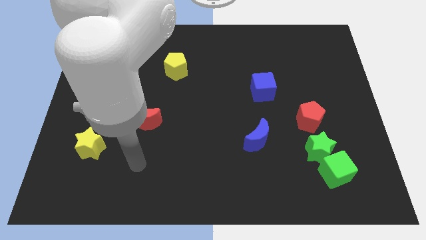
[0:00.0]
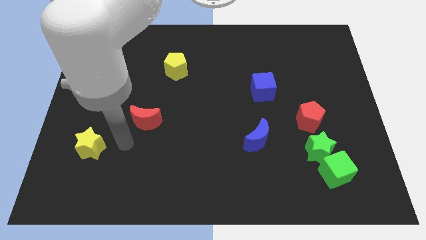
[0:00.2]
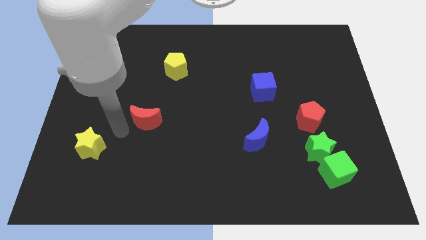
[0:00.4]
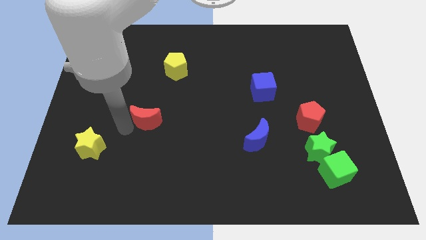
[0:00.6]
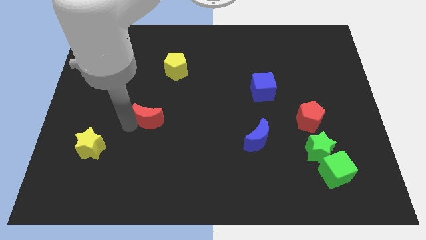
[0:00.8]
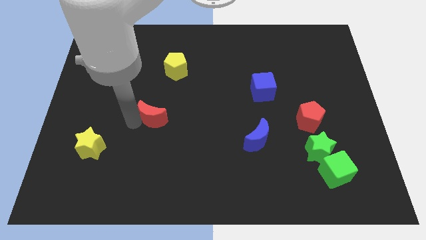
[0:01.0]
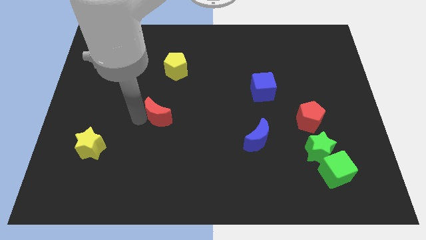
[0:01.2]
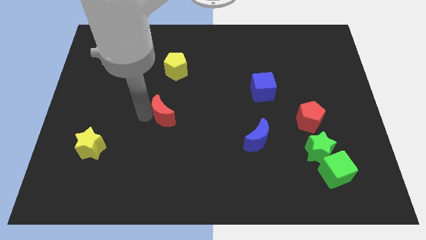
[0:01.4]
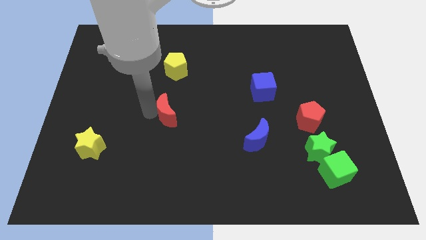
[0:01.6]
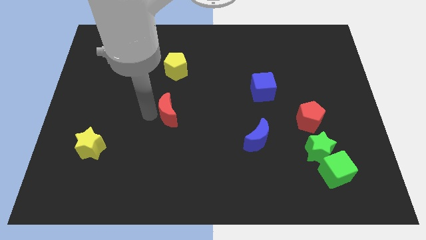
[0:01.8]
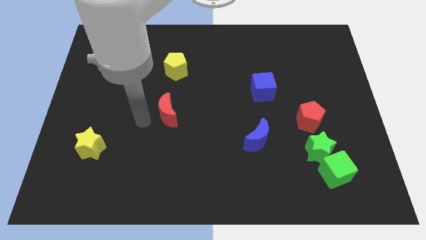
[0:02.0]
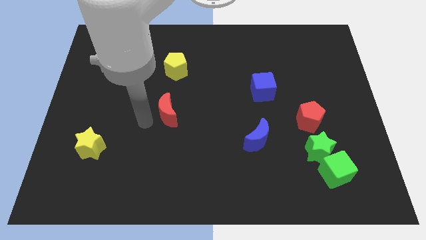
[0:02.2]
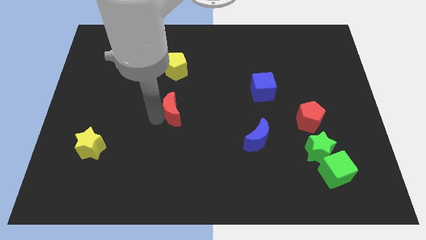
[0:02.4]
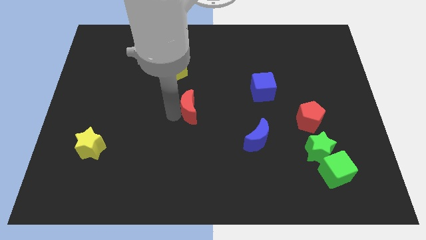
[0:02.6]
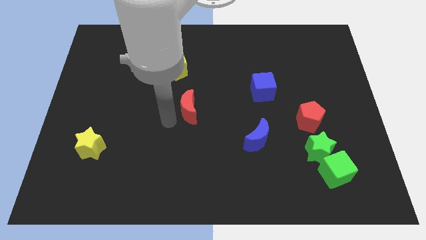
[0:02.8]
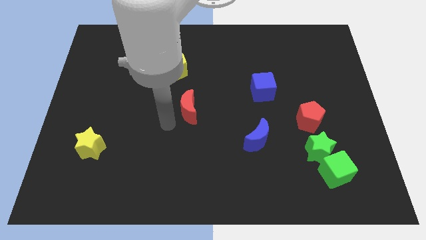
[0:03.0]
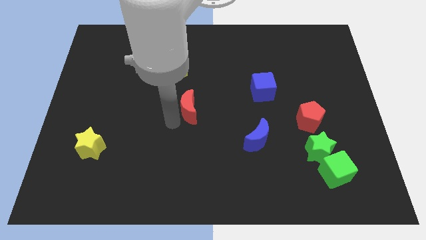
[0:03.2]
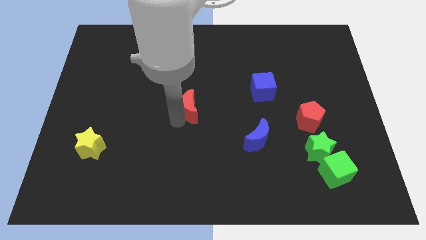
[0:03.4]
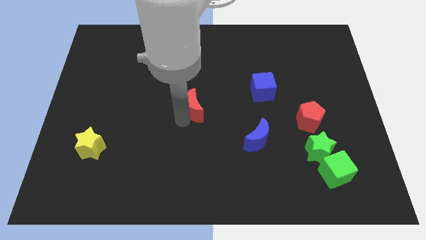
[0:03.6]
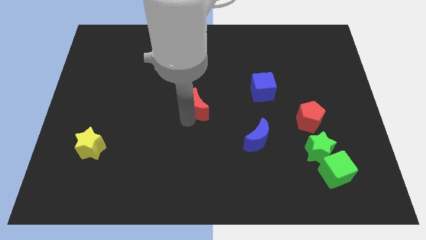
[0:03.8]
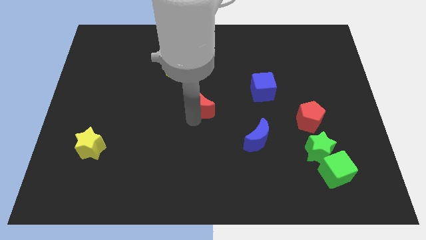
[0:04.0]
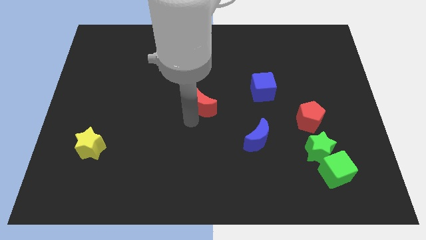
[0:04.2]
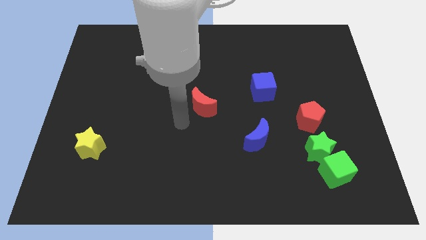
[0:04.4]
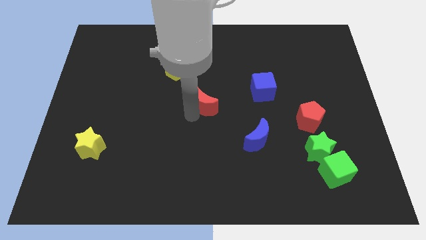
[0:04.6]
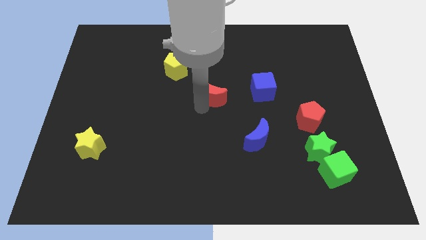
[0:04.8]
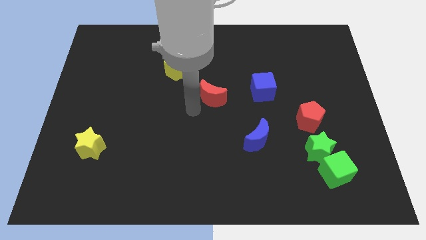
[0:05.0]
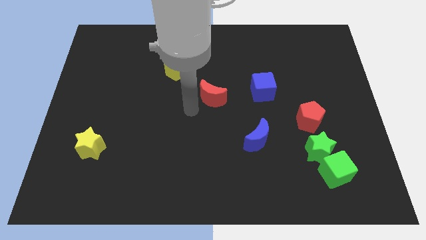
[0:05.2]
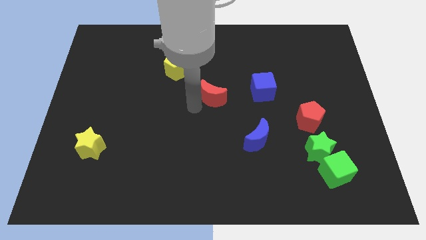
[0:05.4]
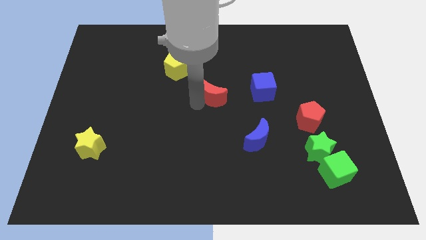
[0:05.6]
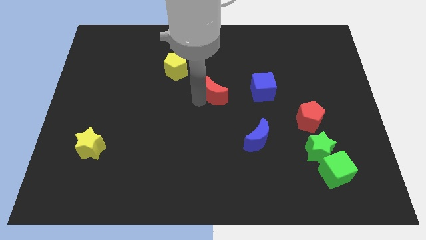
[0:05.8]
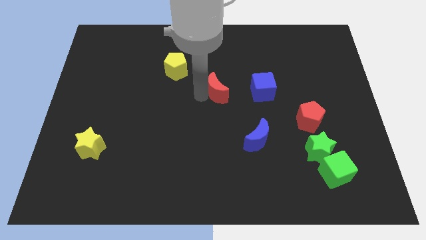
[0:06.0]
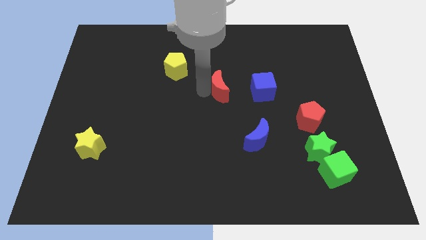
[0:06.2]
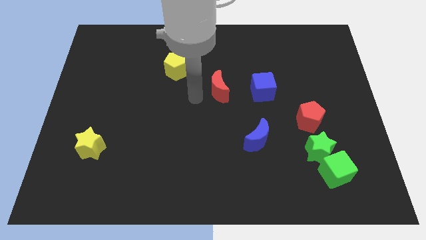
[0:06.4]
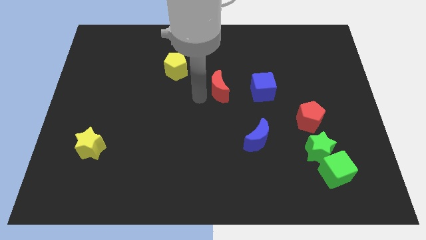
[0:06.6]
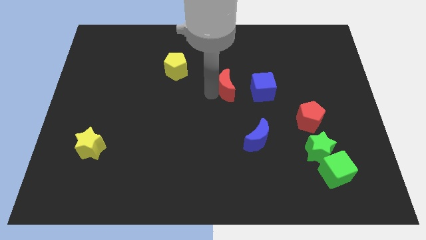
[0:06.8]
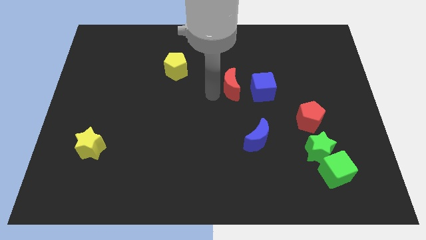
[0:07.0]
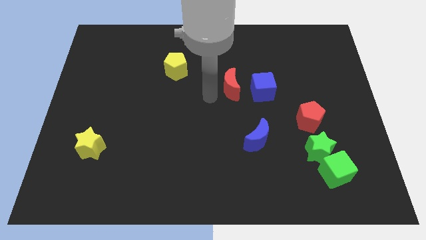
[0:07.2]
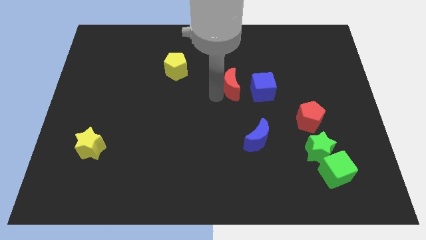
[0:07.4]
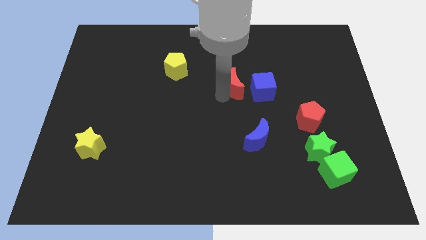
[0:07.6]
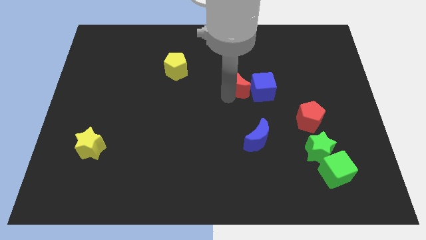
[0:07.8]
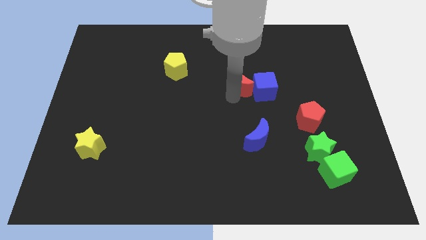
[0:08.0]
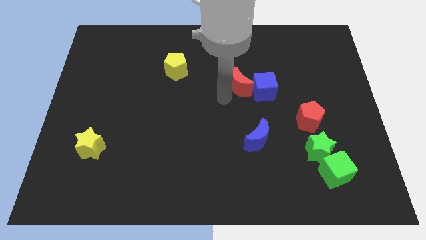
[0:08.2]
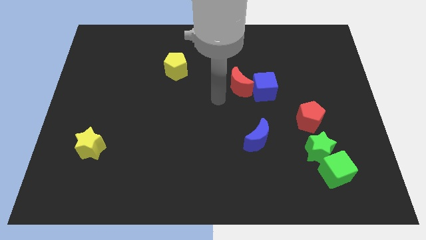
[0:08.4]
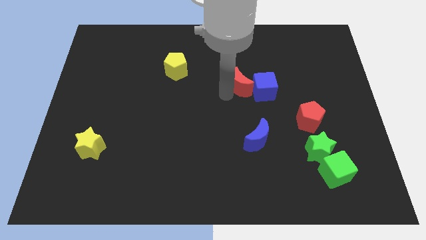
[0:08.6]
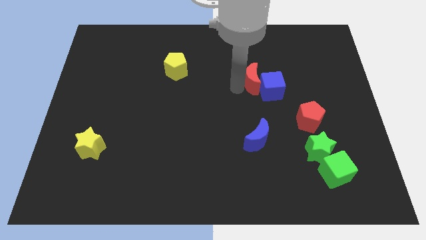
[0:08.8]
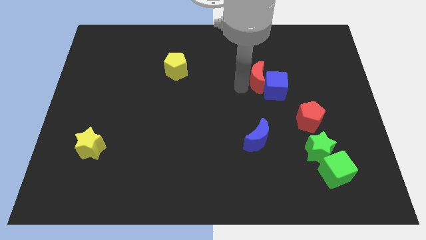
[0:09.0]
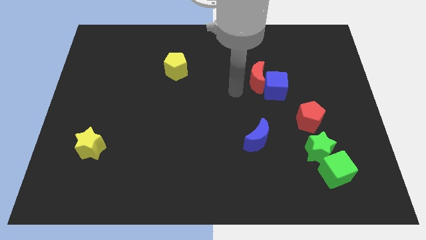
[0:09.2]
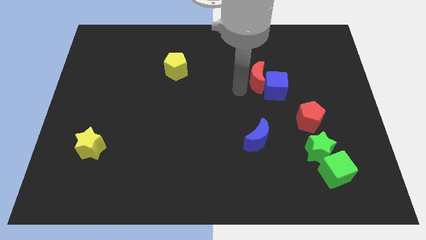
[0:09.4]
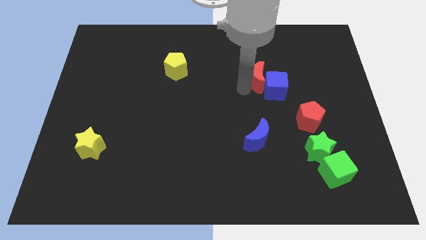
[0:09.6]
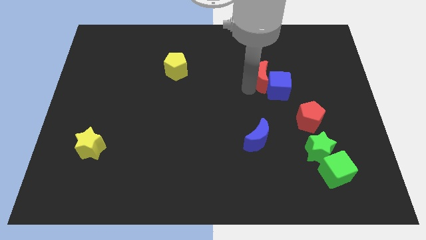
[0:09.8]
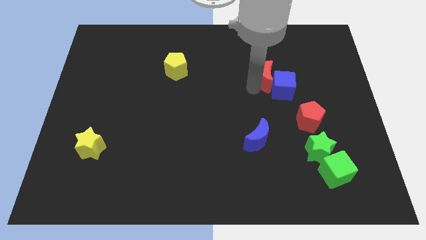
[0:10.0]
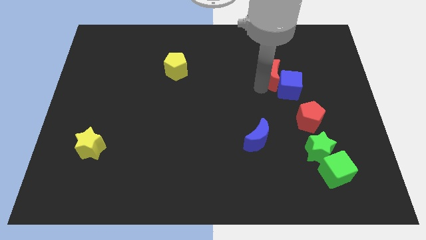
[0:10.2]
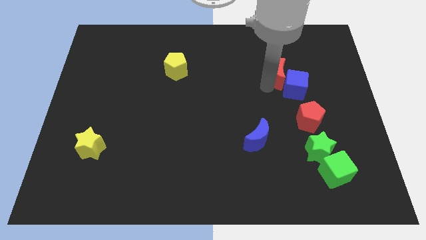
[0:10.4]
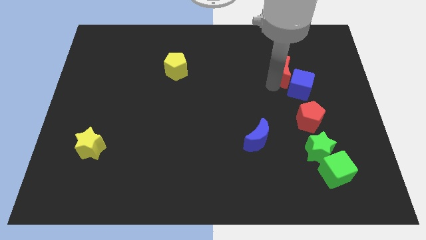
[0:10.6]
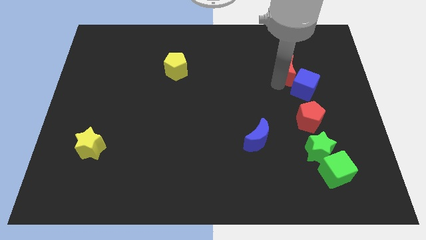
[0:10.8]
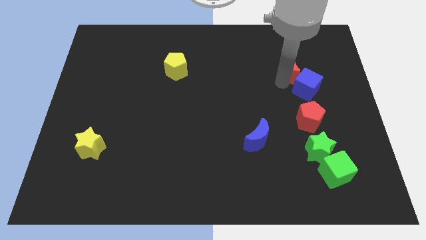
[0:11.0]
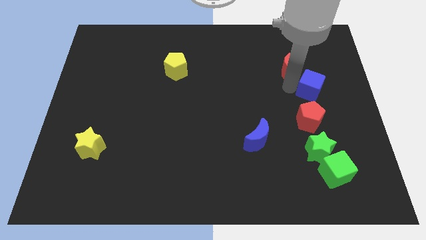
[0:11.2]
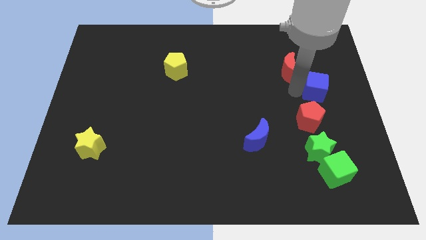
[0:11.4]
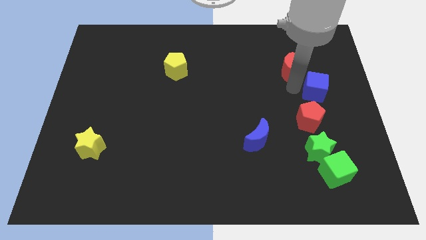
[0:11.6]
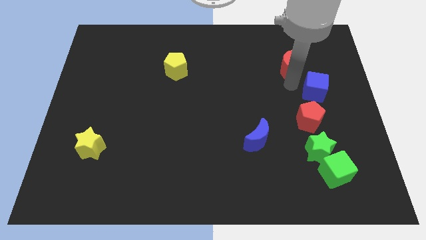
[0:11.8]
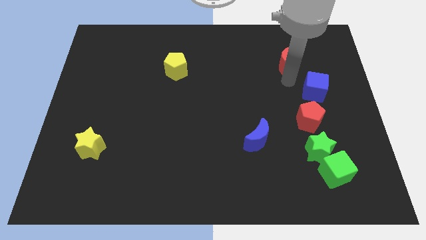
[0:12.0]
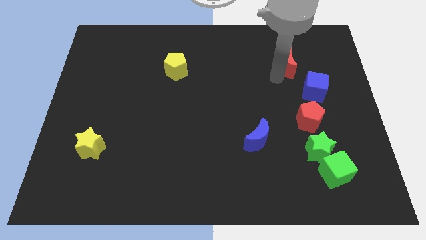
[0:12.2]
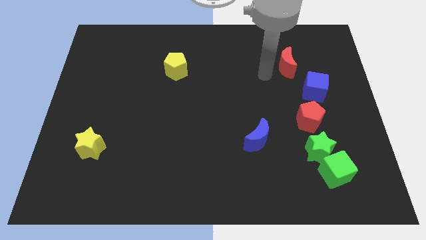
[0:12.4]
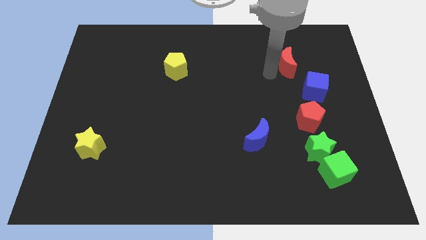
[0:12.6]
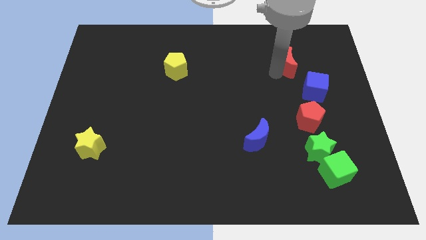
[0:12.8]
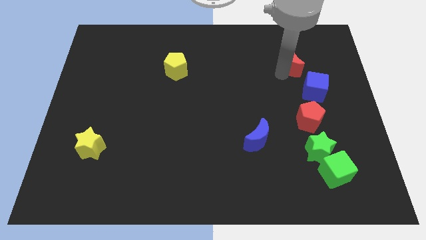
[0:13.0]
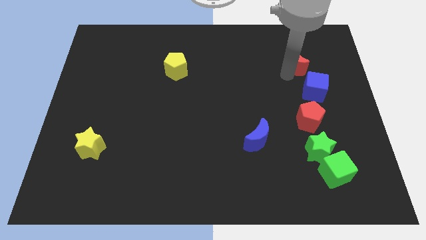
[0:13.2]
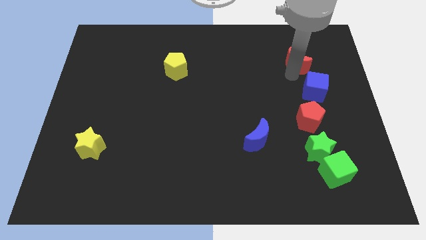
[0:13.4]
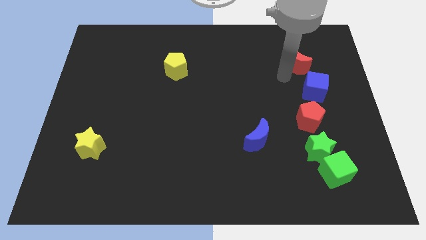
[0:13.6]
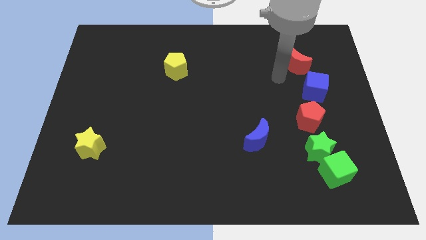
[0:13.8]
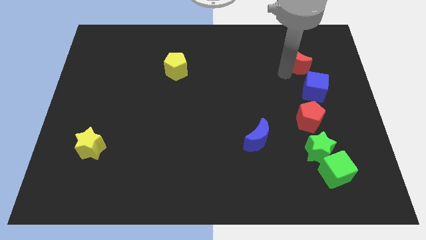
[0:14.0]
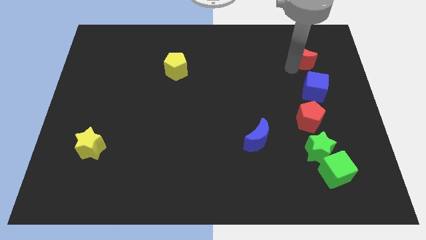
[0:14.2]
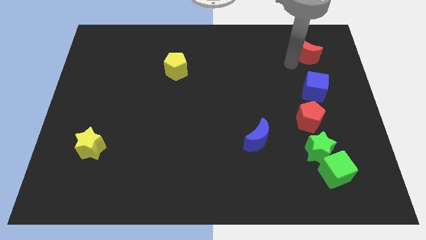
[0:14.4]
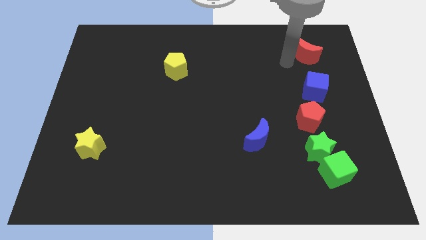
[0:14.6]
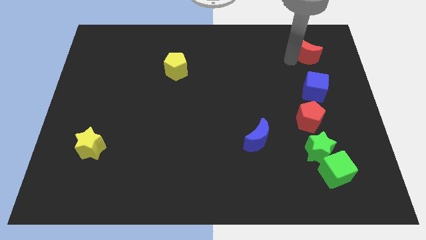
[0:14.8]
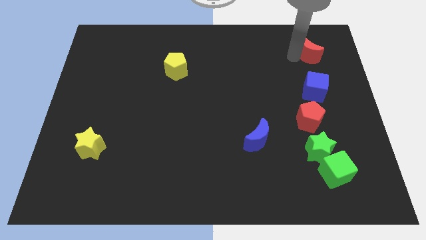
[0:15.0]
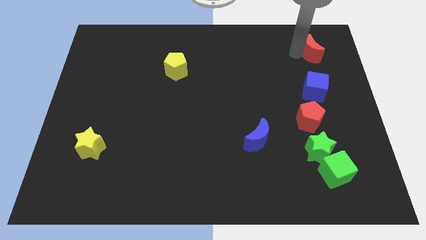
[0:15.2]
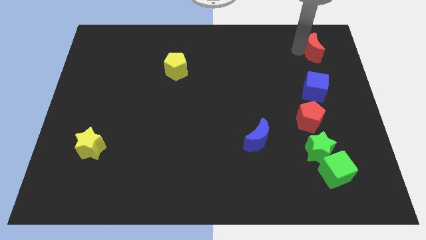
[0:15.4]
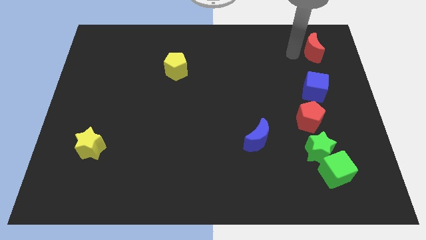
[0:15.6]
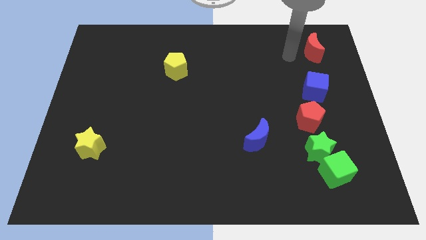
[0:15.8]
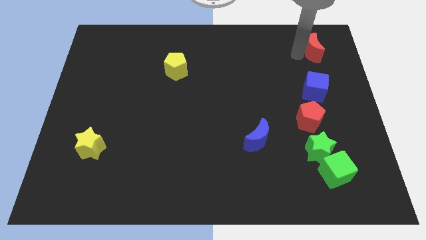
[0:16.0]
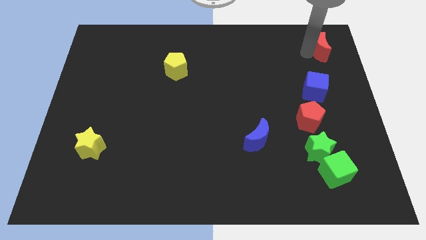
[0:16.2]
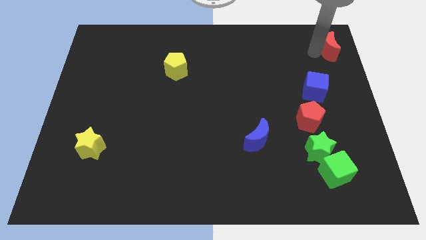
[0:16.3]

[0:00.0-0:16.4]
move the red moon to the top right of the board
